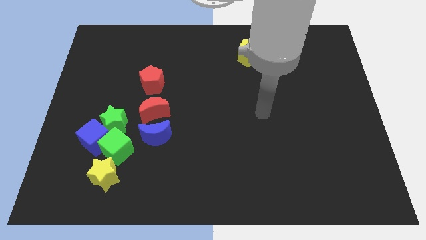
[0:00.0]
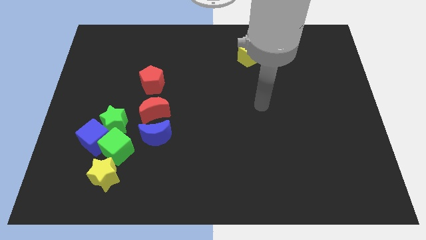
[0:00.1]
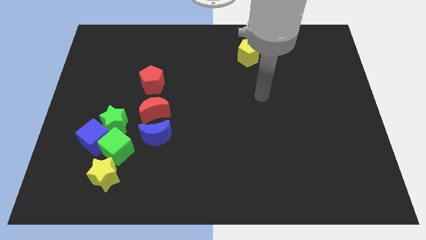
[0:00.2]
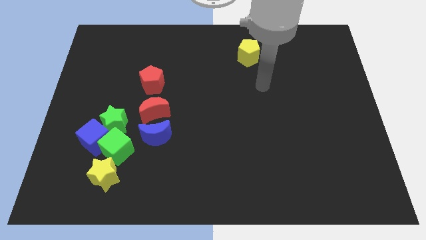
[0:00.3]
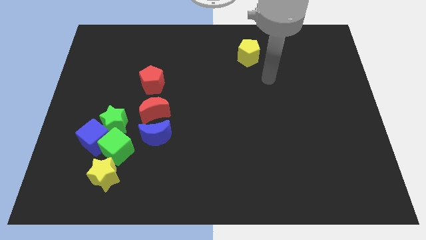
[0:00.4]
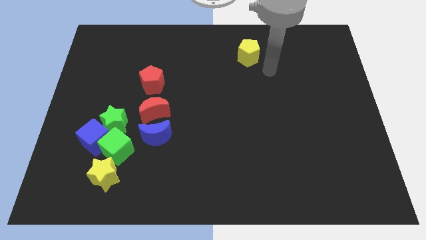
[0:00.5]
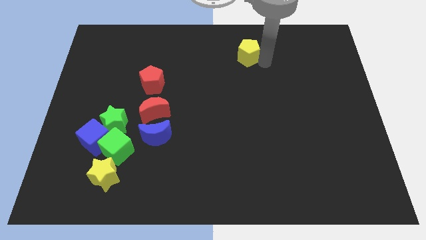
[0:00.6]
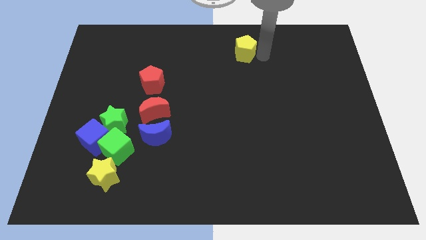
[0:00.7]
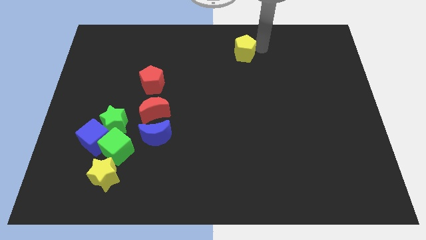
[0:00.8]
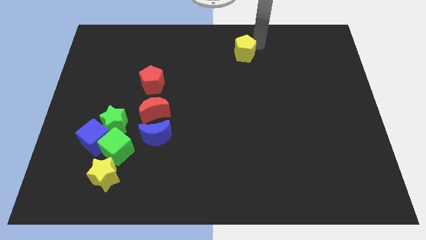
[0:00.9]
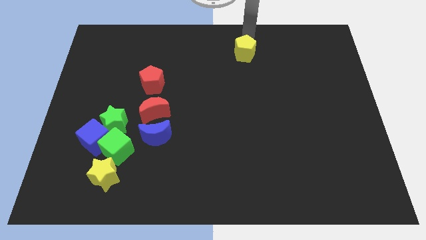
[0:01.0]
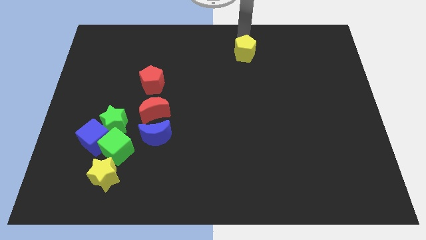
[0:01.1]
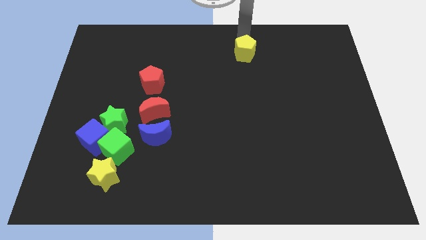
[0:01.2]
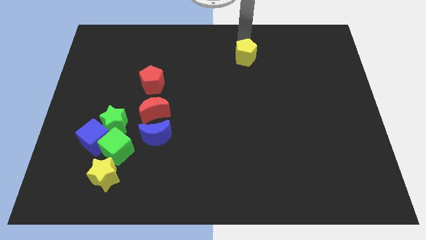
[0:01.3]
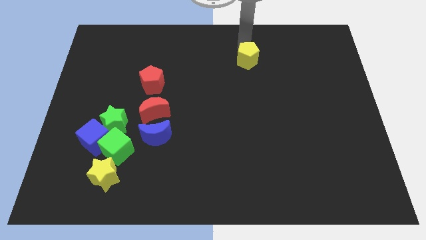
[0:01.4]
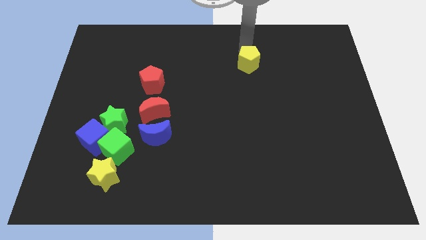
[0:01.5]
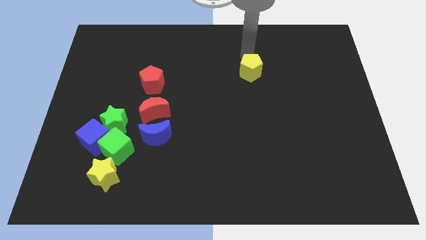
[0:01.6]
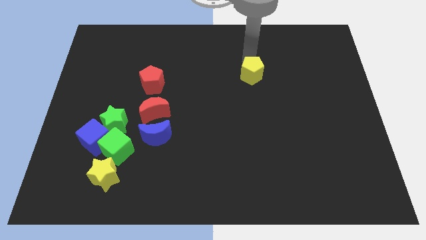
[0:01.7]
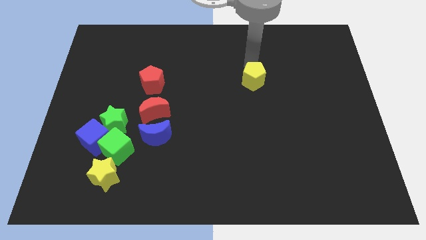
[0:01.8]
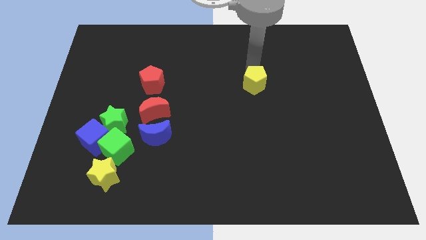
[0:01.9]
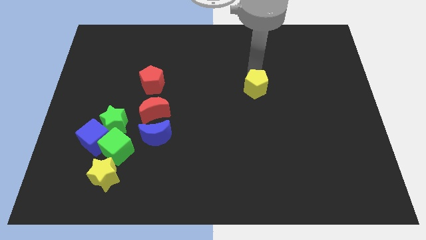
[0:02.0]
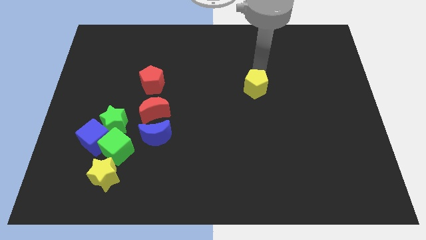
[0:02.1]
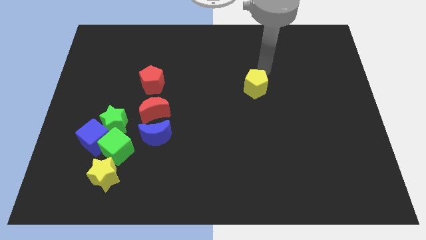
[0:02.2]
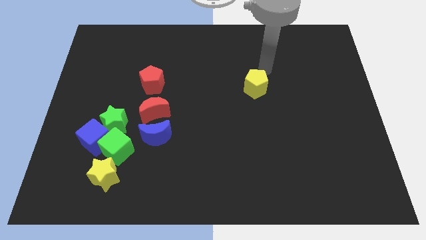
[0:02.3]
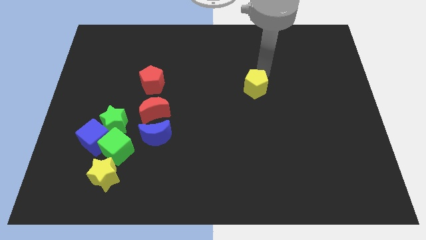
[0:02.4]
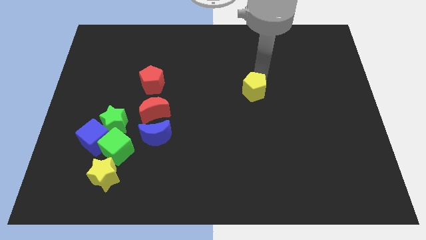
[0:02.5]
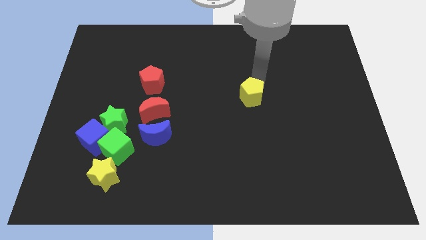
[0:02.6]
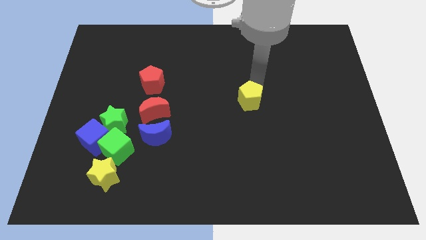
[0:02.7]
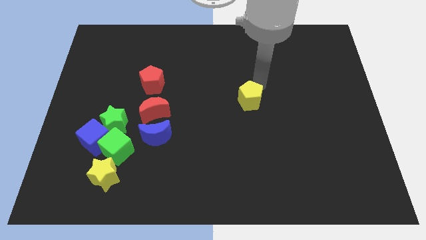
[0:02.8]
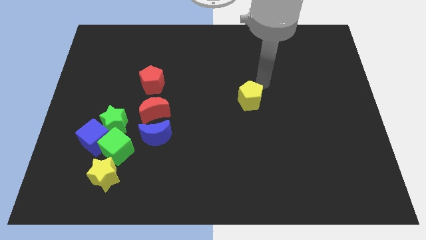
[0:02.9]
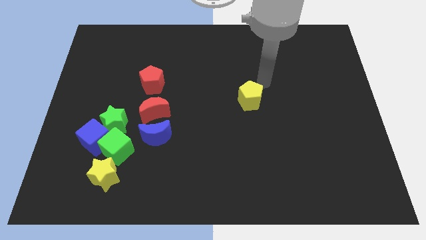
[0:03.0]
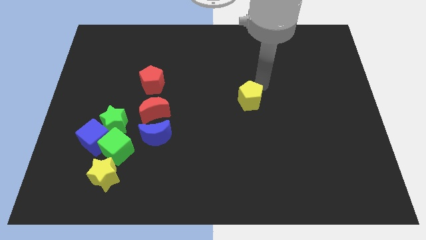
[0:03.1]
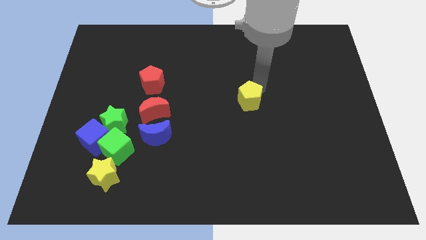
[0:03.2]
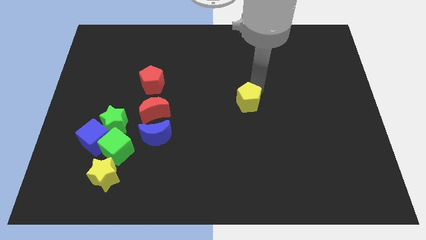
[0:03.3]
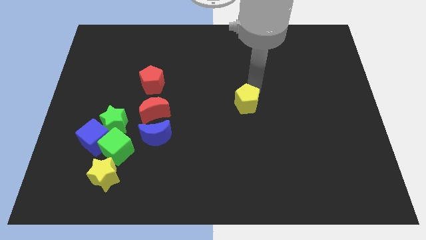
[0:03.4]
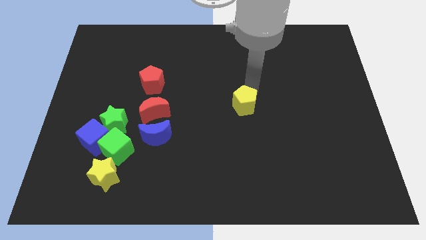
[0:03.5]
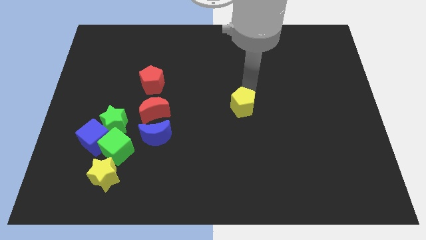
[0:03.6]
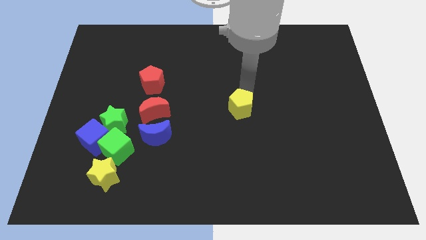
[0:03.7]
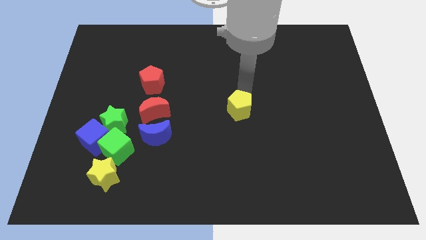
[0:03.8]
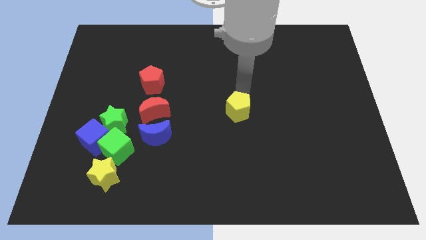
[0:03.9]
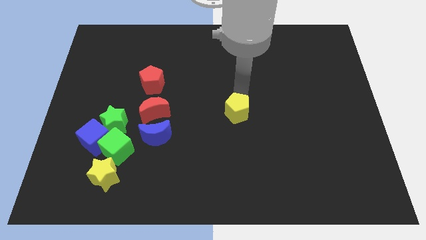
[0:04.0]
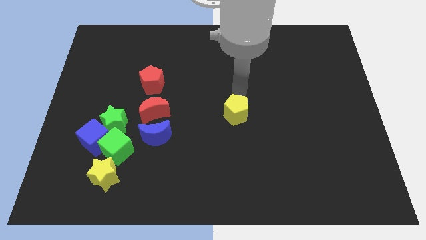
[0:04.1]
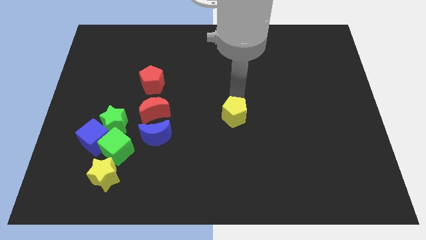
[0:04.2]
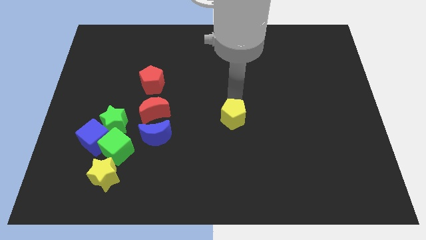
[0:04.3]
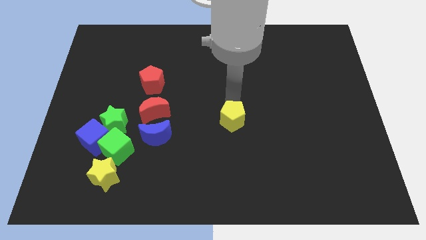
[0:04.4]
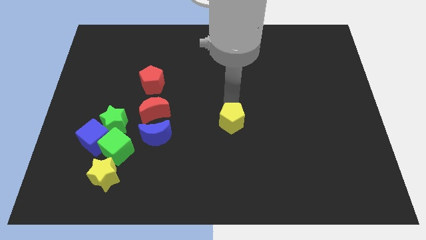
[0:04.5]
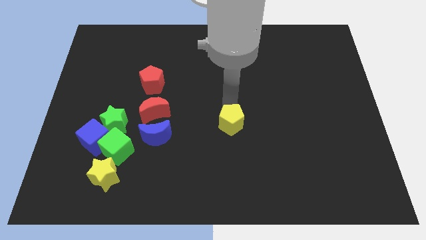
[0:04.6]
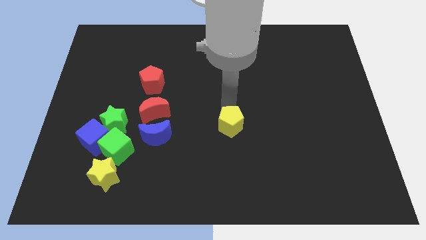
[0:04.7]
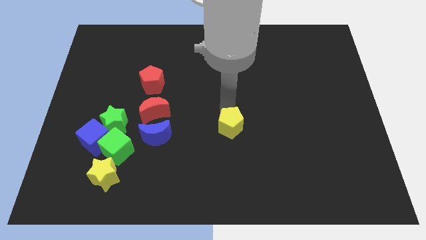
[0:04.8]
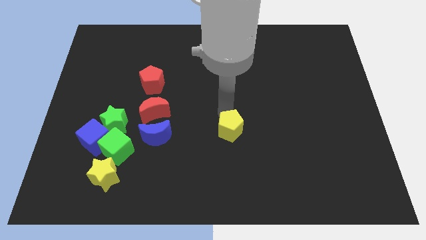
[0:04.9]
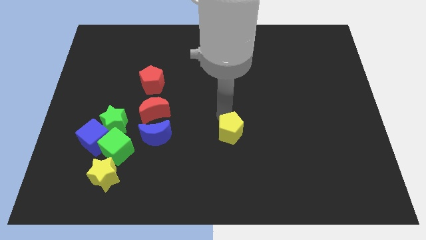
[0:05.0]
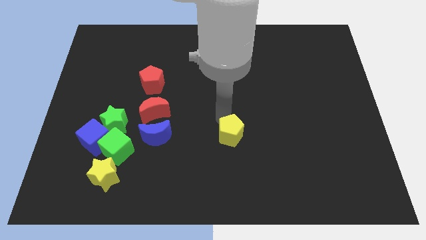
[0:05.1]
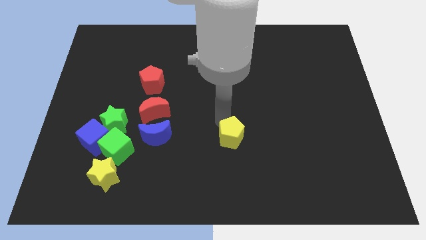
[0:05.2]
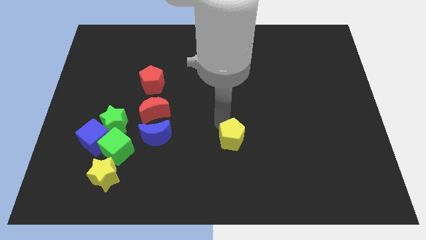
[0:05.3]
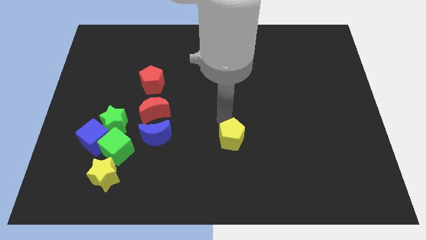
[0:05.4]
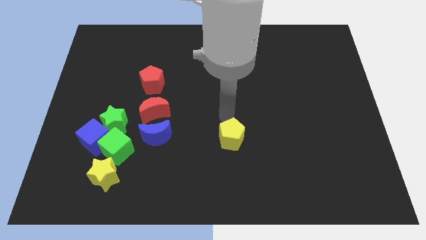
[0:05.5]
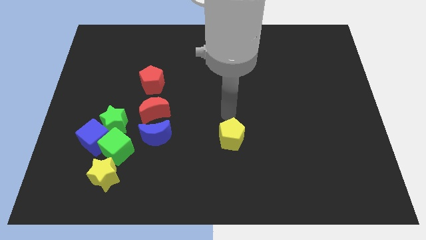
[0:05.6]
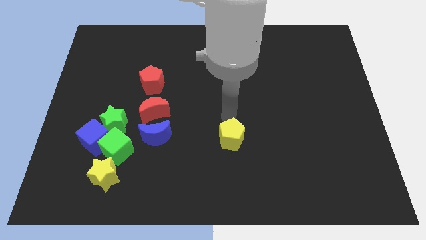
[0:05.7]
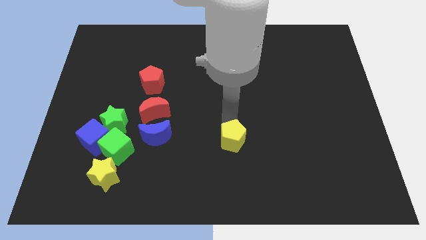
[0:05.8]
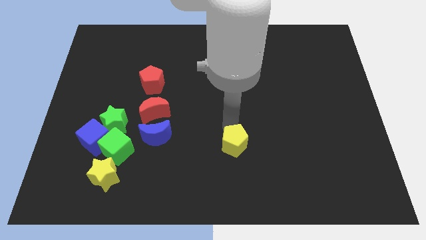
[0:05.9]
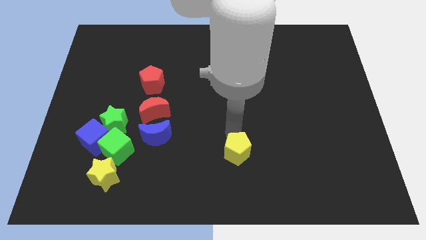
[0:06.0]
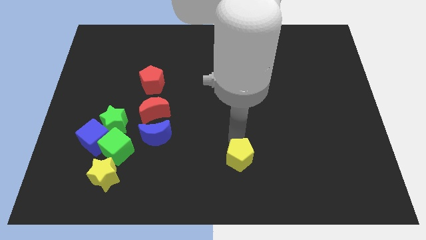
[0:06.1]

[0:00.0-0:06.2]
move the yellow pentagon to the bottom side

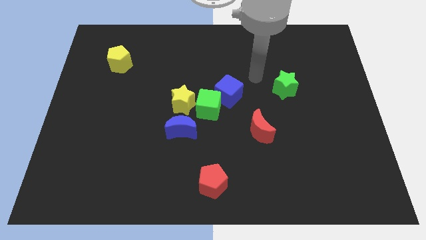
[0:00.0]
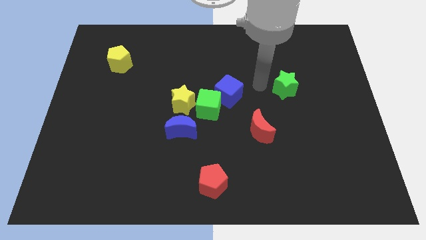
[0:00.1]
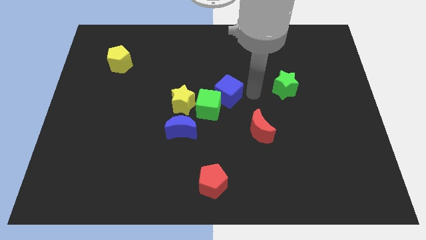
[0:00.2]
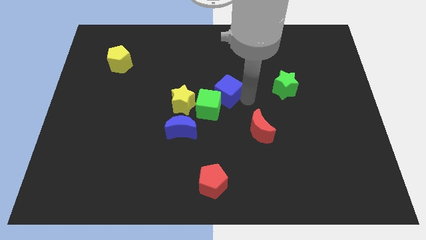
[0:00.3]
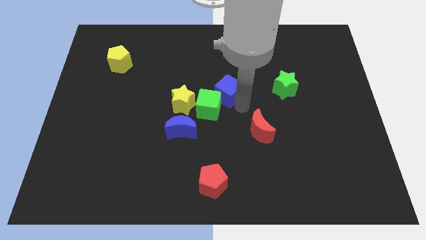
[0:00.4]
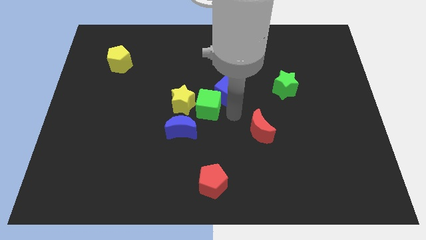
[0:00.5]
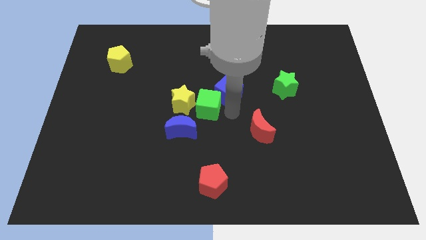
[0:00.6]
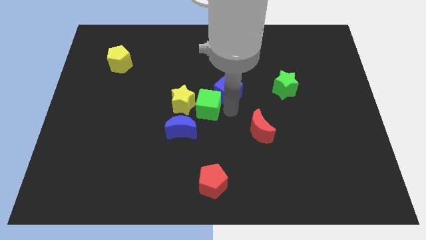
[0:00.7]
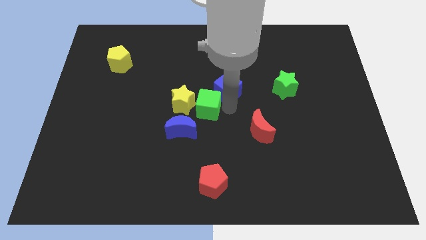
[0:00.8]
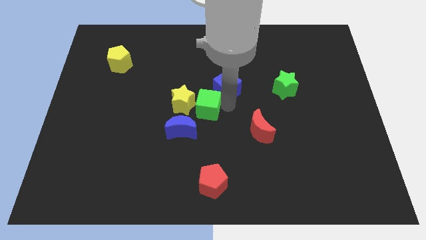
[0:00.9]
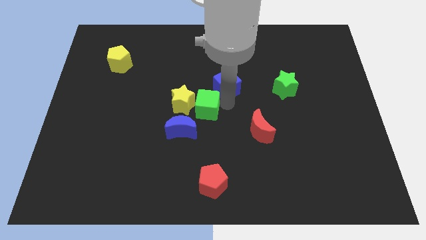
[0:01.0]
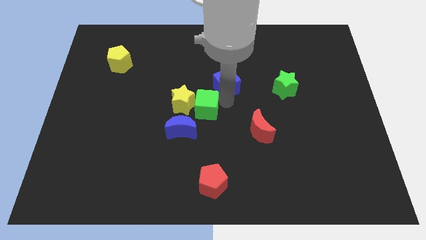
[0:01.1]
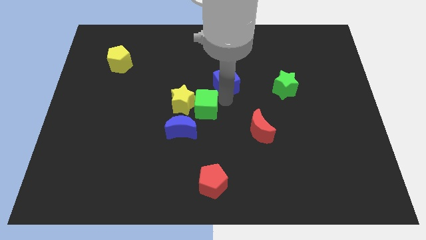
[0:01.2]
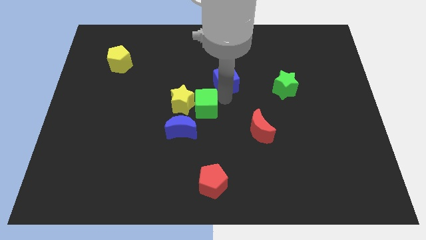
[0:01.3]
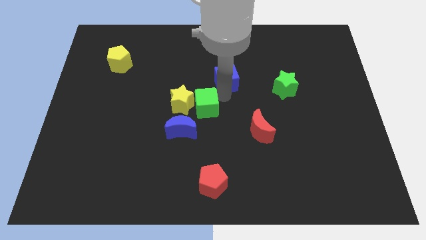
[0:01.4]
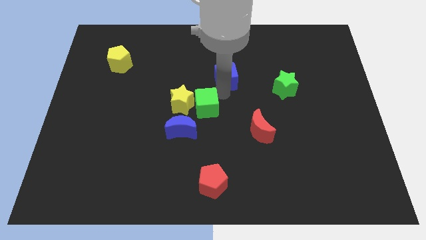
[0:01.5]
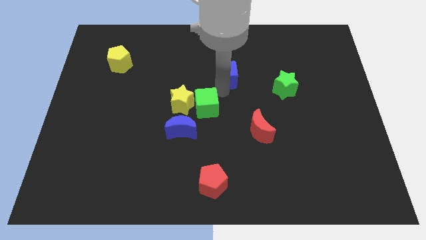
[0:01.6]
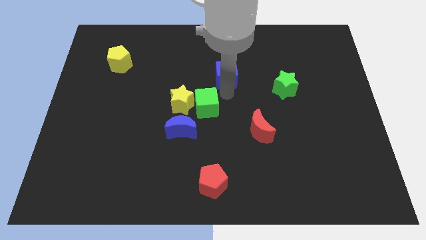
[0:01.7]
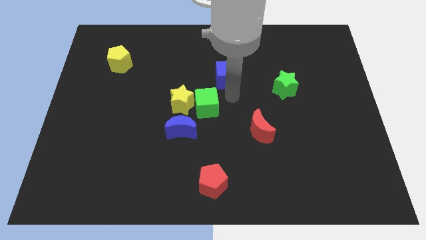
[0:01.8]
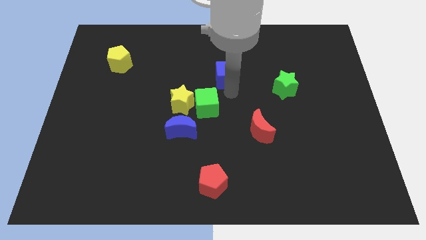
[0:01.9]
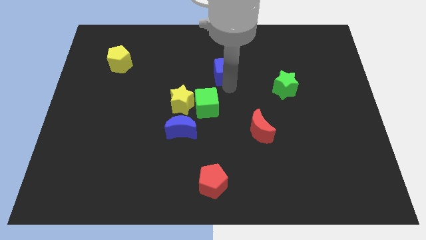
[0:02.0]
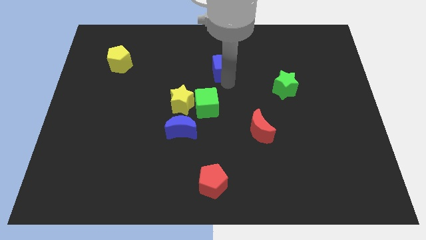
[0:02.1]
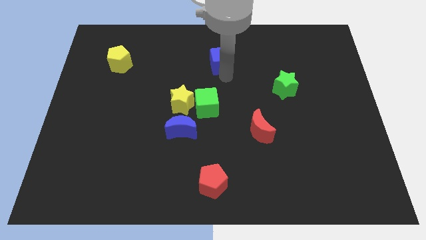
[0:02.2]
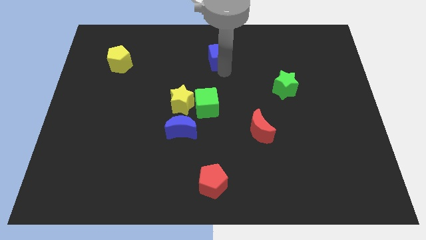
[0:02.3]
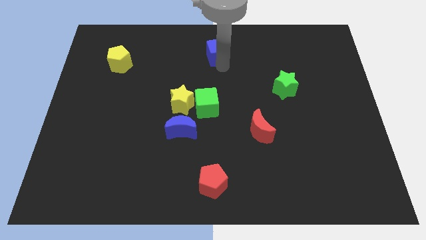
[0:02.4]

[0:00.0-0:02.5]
put the blue cube to the towards your base
